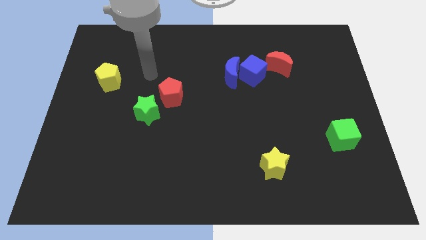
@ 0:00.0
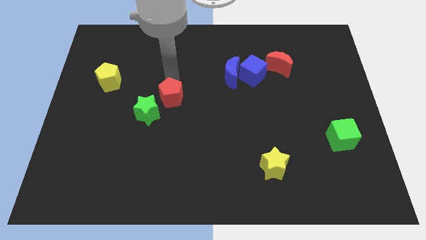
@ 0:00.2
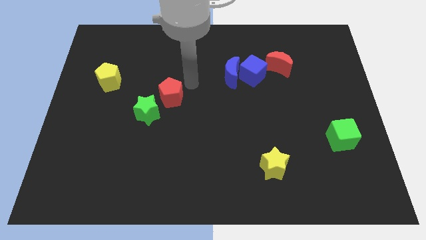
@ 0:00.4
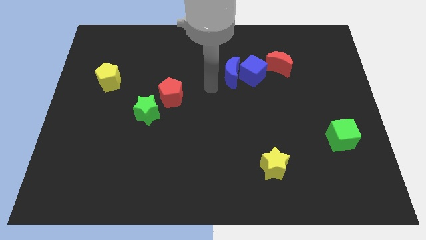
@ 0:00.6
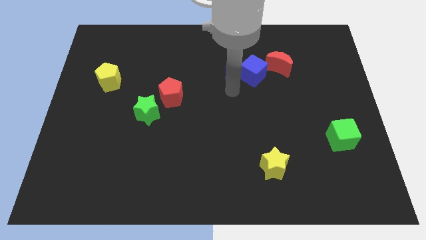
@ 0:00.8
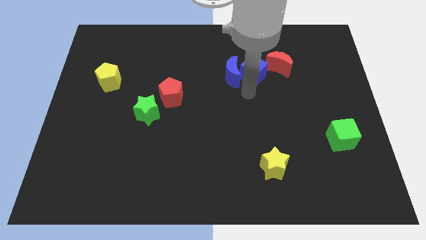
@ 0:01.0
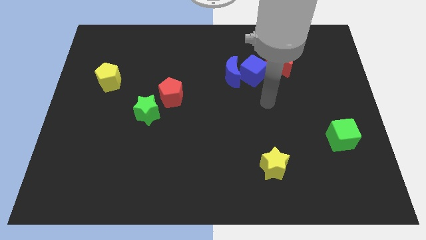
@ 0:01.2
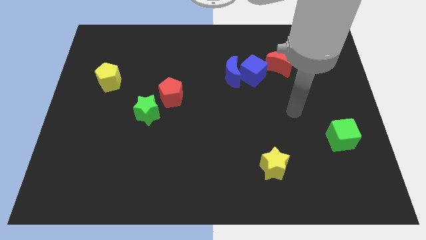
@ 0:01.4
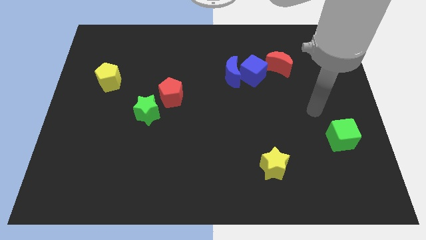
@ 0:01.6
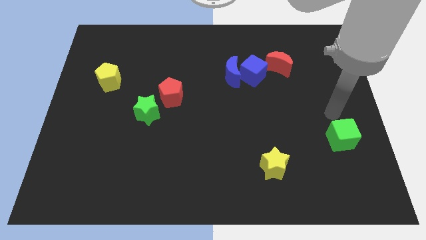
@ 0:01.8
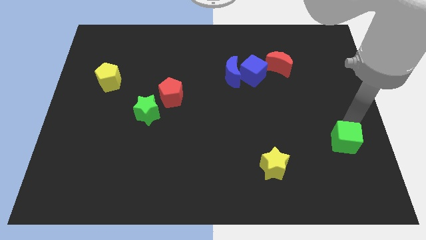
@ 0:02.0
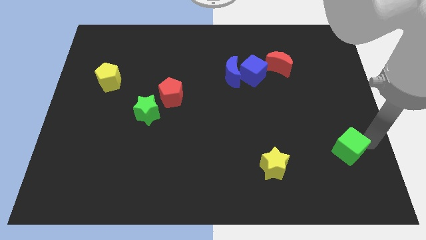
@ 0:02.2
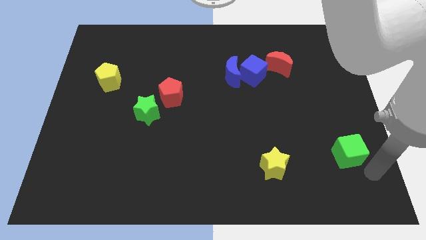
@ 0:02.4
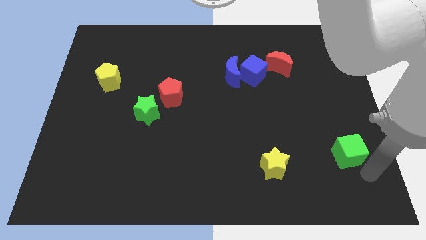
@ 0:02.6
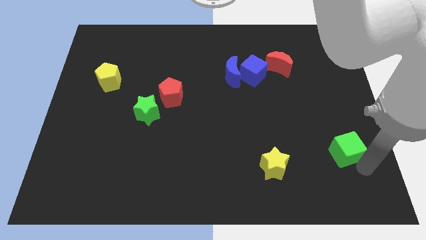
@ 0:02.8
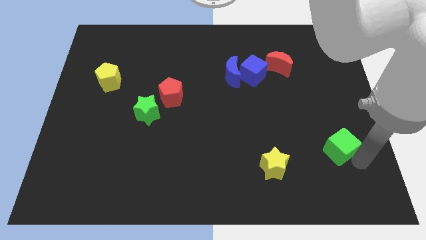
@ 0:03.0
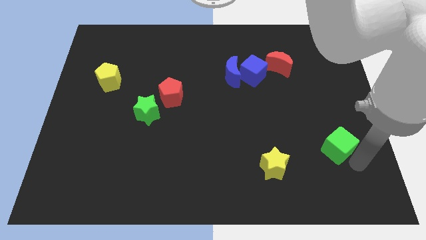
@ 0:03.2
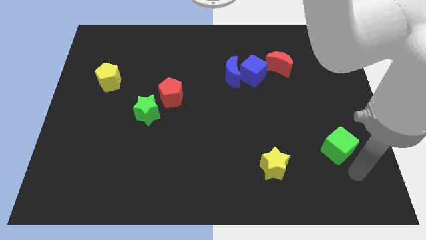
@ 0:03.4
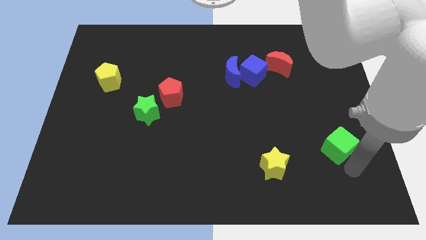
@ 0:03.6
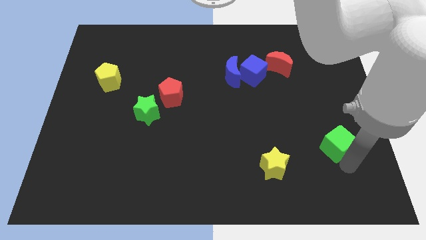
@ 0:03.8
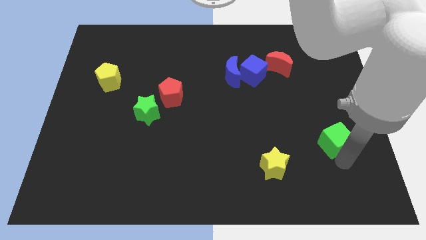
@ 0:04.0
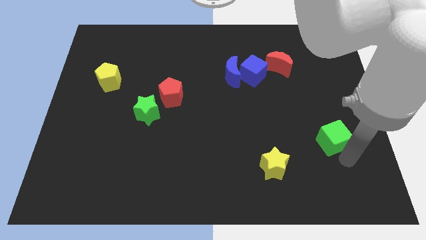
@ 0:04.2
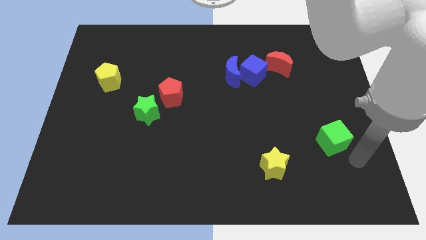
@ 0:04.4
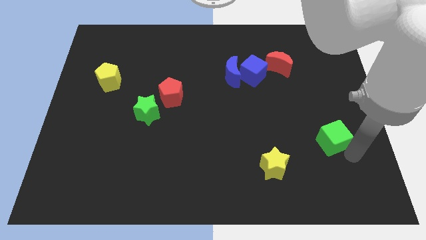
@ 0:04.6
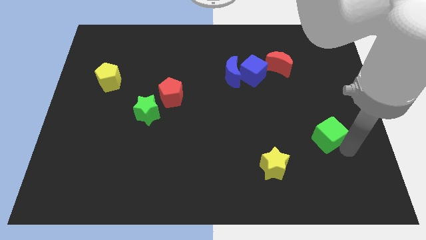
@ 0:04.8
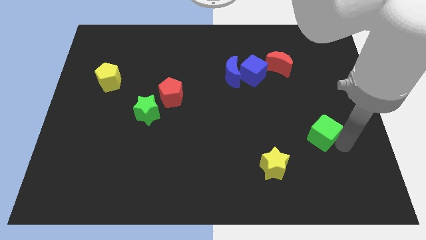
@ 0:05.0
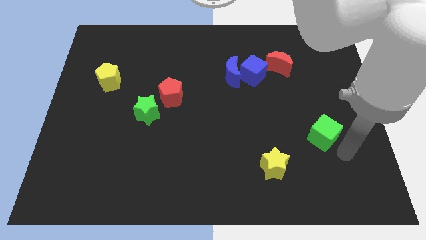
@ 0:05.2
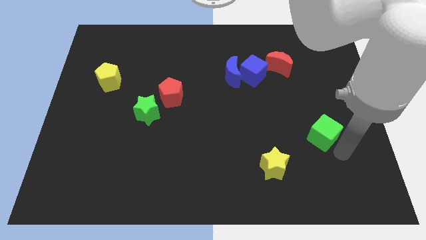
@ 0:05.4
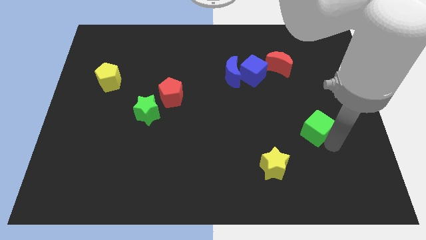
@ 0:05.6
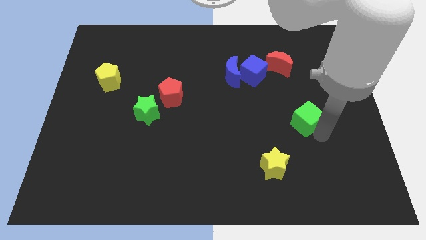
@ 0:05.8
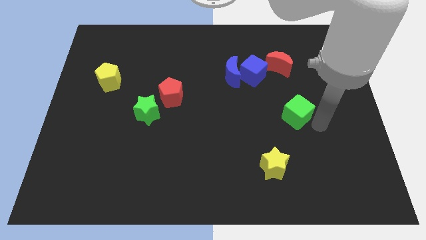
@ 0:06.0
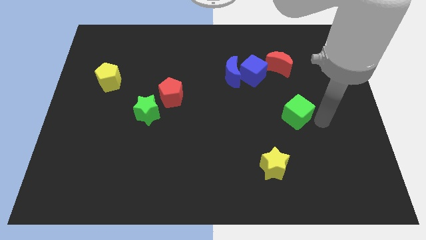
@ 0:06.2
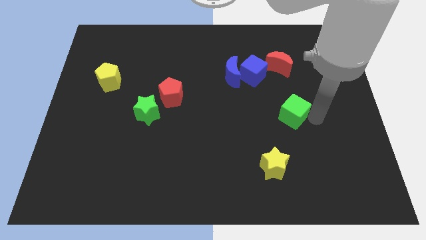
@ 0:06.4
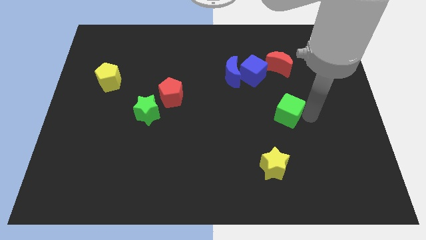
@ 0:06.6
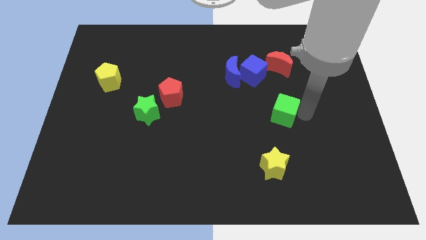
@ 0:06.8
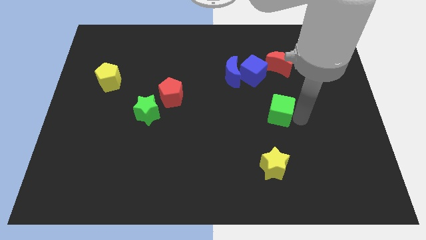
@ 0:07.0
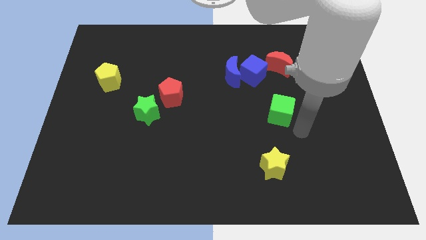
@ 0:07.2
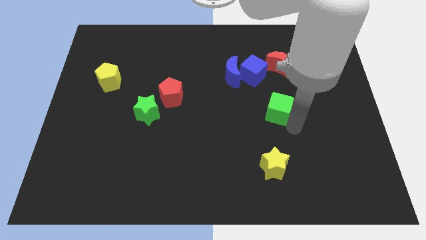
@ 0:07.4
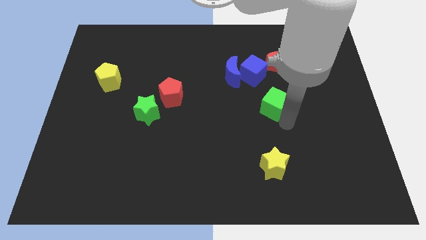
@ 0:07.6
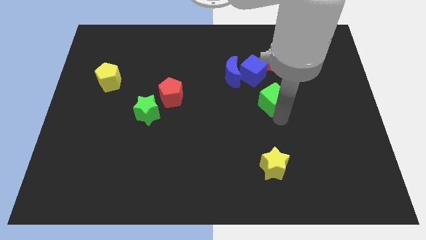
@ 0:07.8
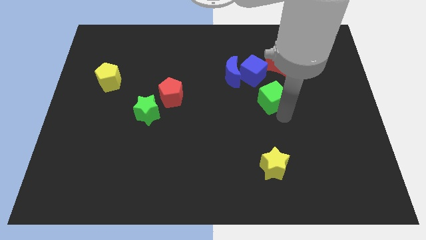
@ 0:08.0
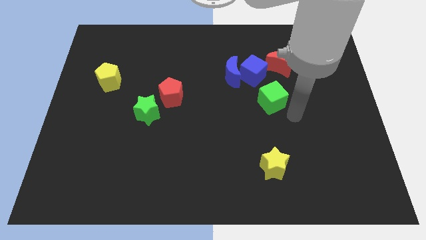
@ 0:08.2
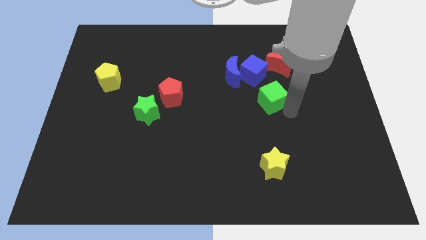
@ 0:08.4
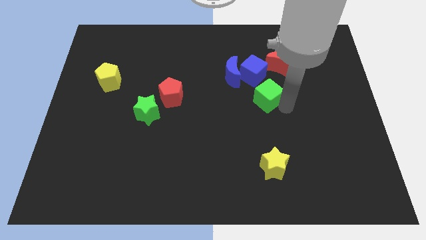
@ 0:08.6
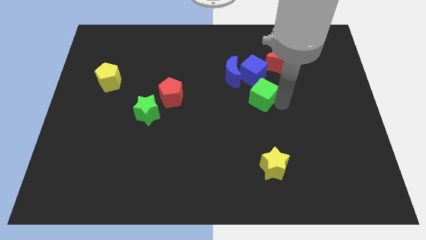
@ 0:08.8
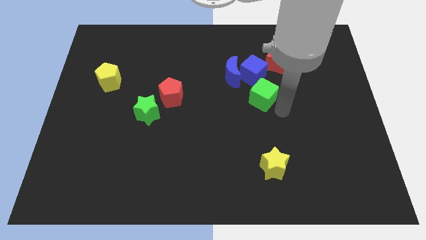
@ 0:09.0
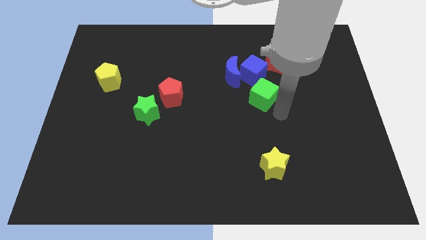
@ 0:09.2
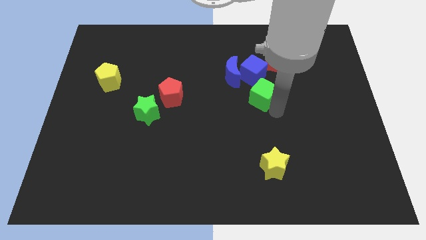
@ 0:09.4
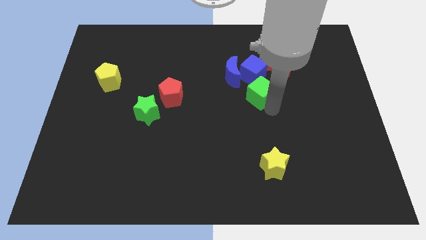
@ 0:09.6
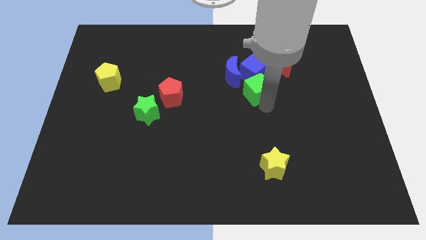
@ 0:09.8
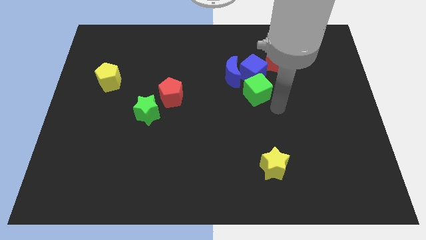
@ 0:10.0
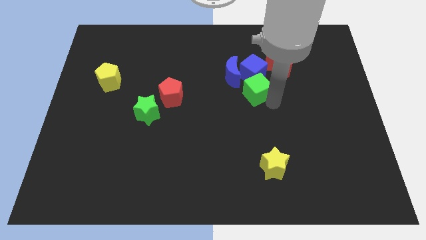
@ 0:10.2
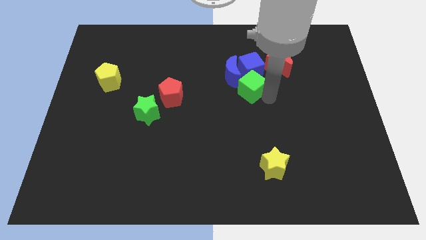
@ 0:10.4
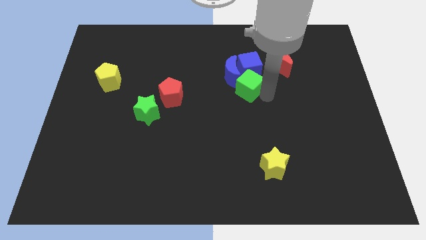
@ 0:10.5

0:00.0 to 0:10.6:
move the green cube to the blue moon

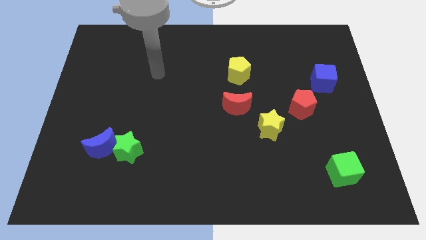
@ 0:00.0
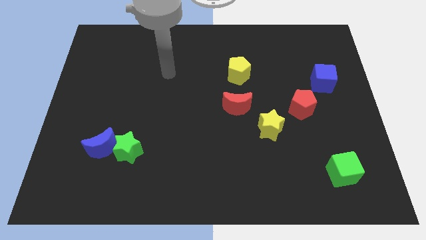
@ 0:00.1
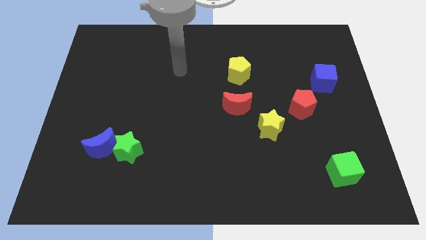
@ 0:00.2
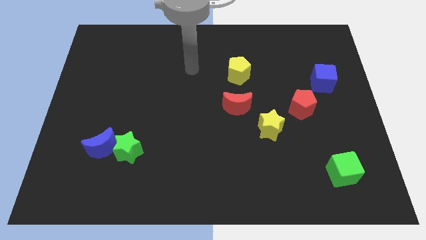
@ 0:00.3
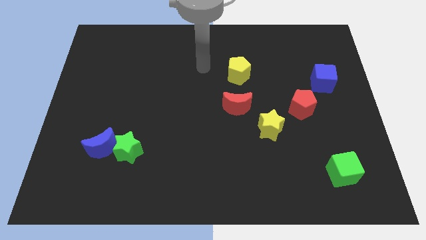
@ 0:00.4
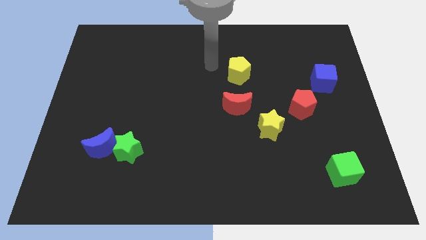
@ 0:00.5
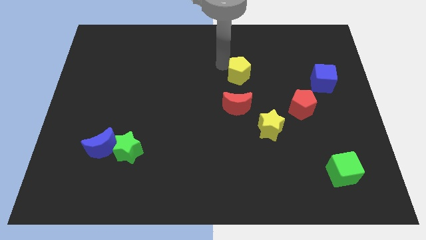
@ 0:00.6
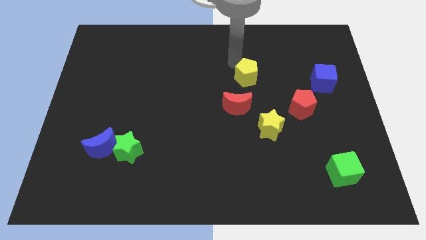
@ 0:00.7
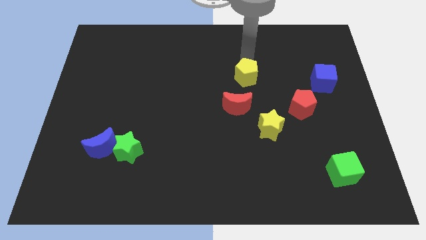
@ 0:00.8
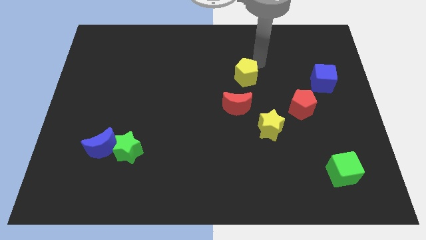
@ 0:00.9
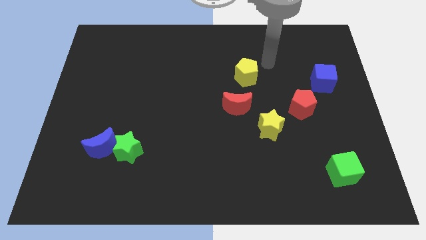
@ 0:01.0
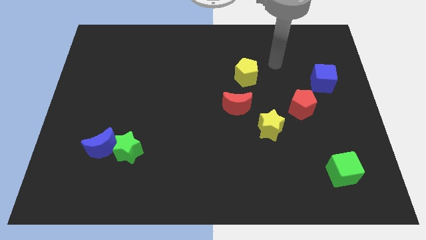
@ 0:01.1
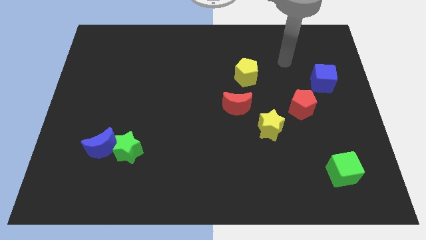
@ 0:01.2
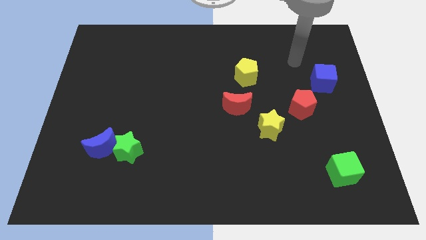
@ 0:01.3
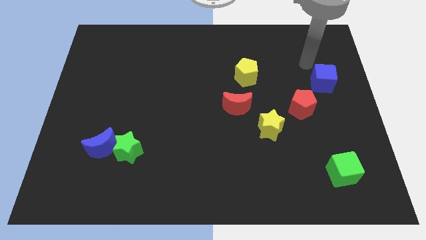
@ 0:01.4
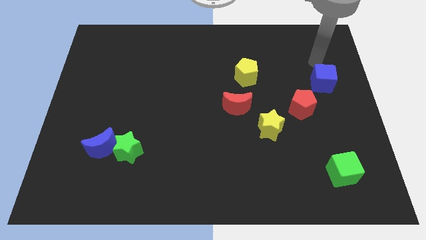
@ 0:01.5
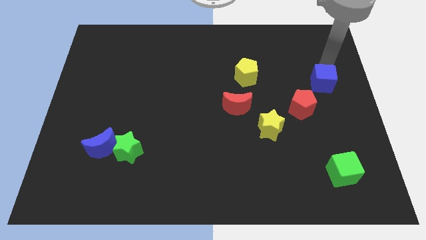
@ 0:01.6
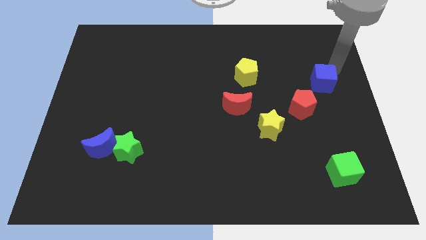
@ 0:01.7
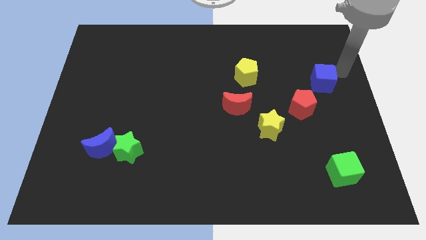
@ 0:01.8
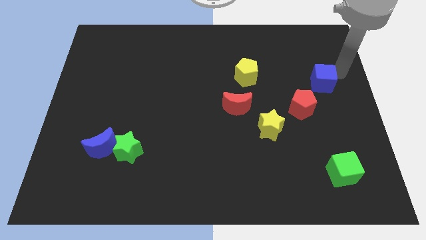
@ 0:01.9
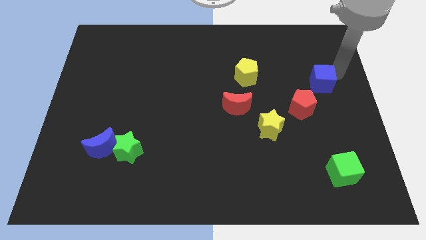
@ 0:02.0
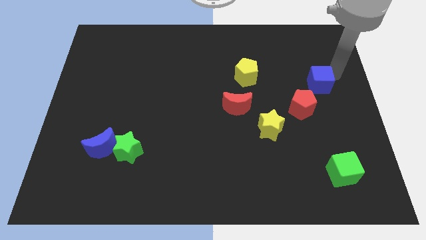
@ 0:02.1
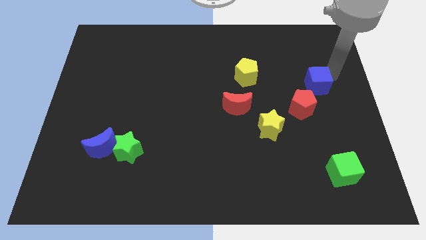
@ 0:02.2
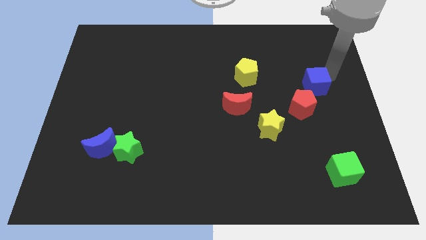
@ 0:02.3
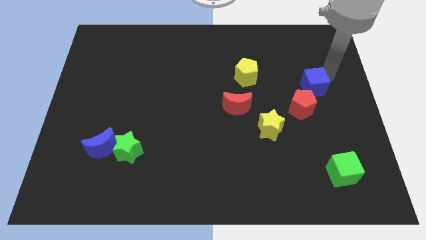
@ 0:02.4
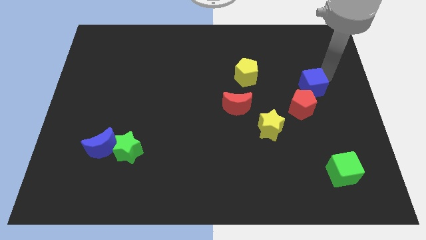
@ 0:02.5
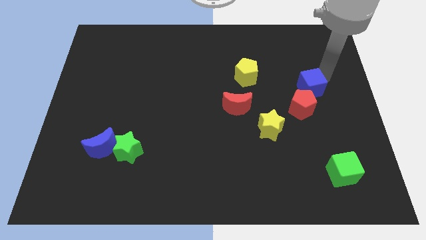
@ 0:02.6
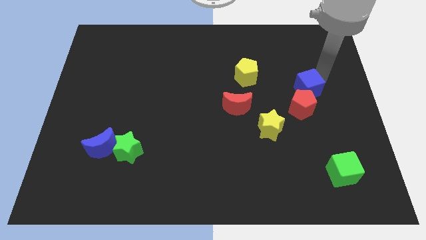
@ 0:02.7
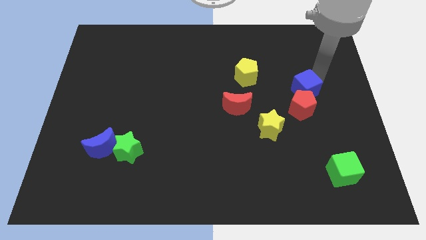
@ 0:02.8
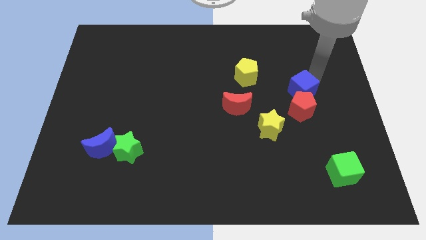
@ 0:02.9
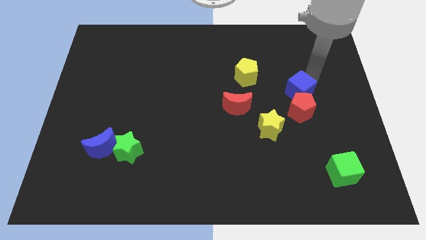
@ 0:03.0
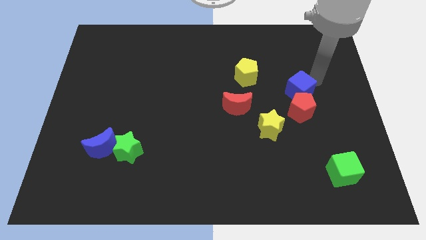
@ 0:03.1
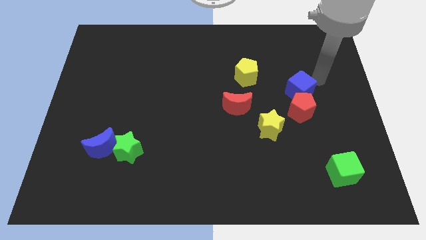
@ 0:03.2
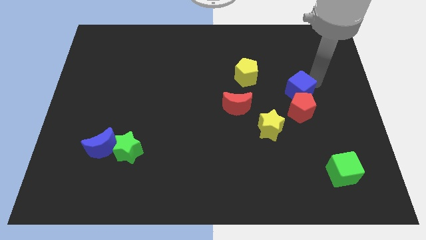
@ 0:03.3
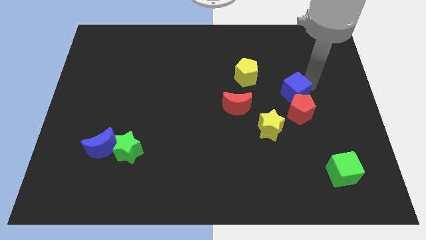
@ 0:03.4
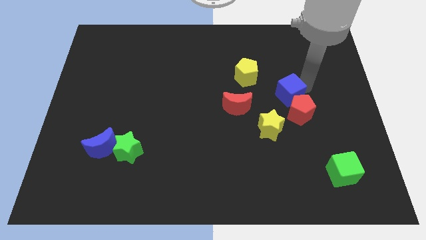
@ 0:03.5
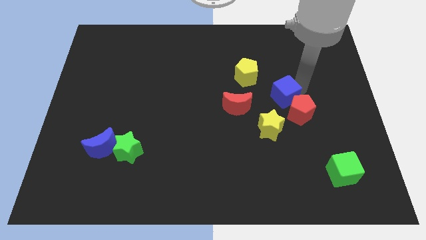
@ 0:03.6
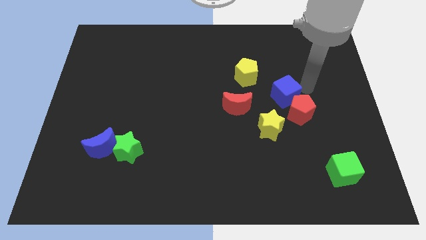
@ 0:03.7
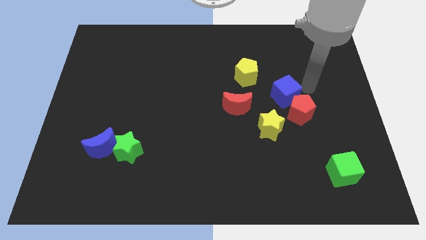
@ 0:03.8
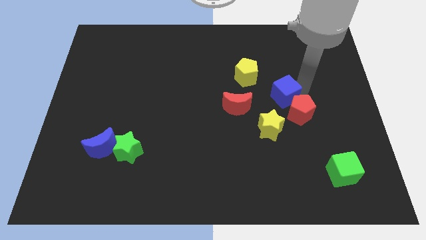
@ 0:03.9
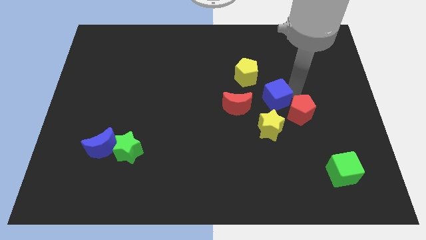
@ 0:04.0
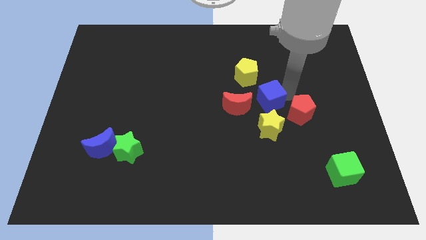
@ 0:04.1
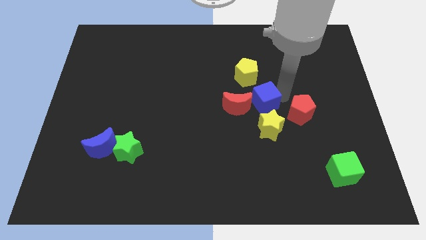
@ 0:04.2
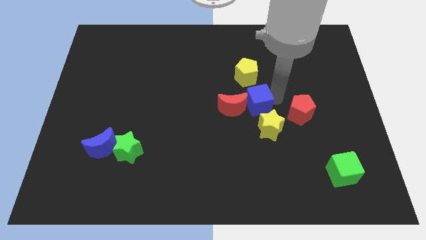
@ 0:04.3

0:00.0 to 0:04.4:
put the blue cube to the red moon
